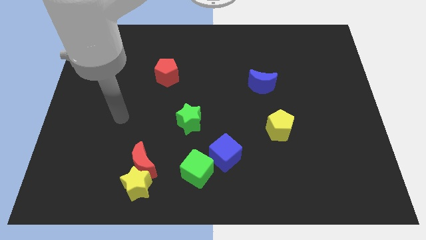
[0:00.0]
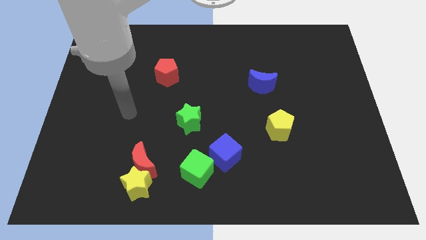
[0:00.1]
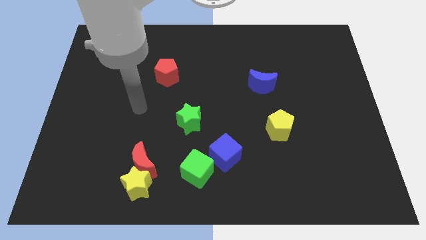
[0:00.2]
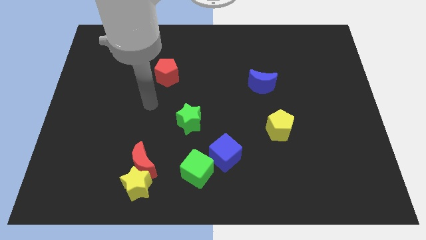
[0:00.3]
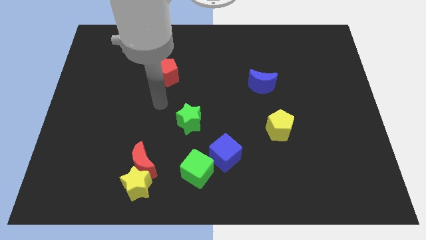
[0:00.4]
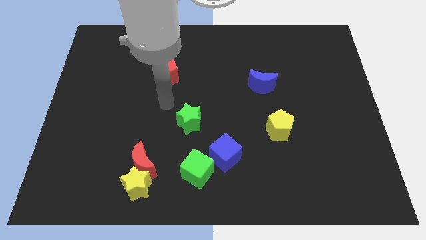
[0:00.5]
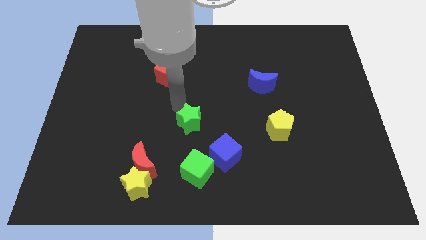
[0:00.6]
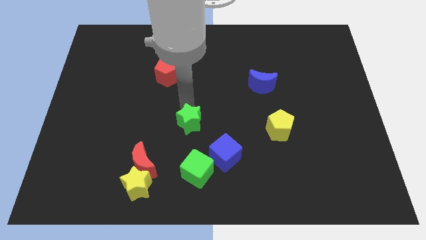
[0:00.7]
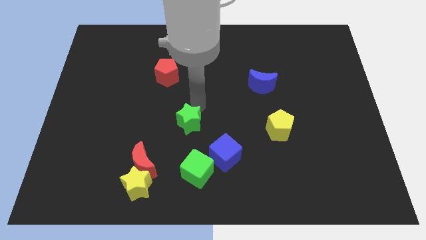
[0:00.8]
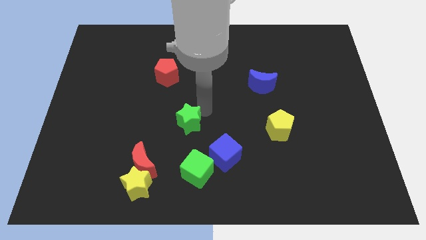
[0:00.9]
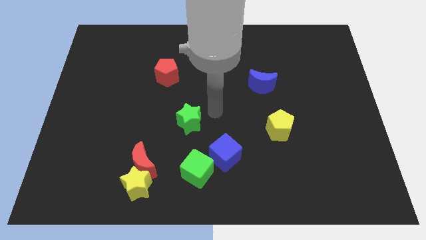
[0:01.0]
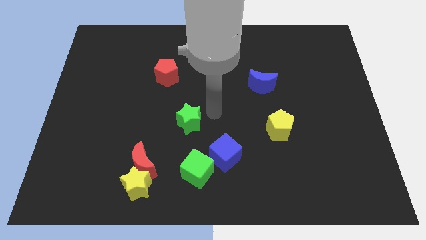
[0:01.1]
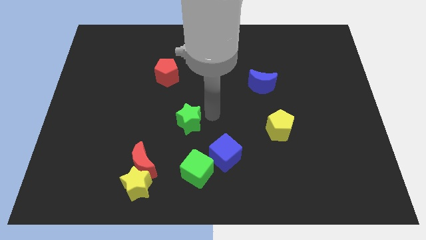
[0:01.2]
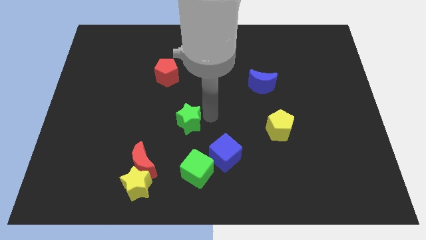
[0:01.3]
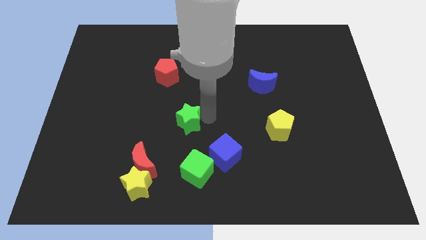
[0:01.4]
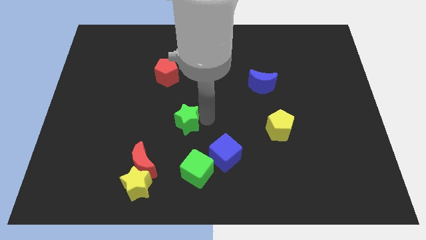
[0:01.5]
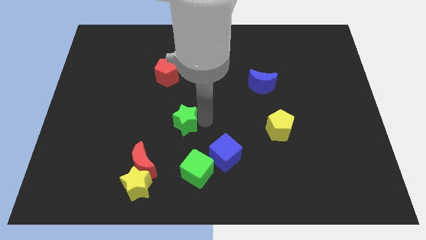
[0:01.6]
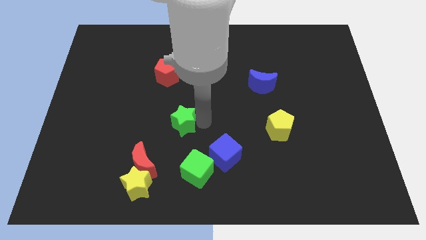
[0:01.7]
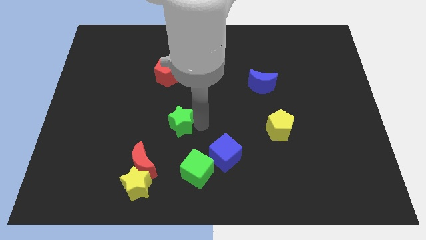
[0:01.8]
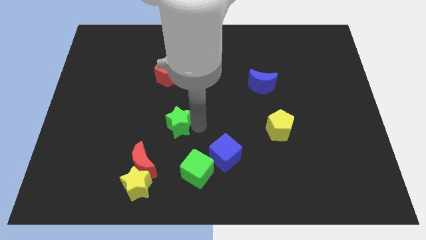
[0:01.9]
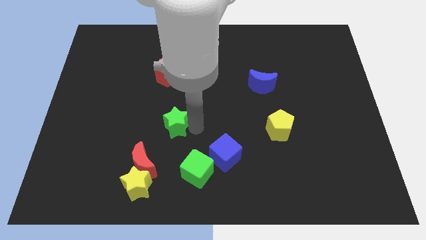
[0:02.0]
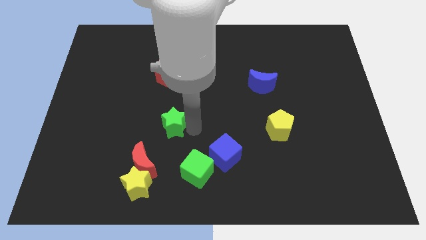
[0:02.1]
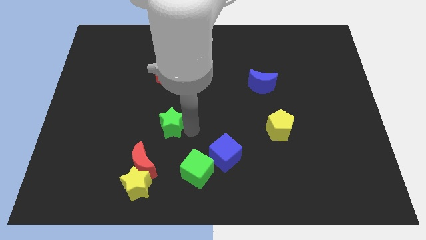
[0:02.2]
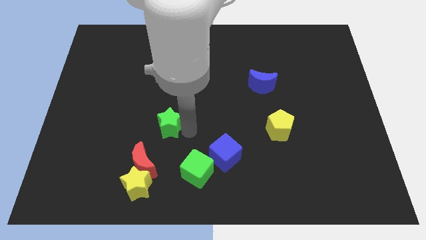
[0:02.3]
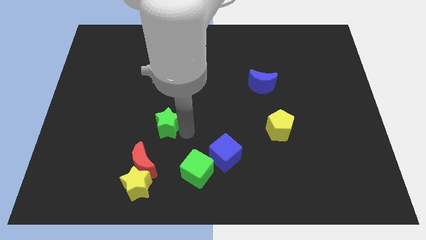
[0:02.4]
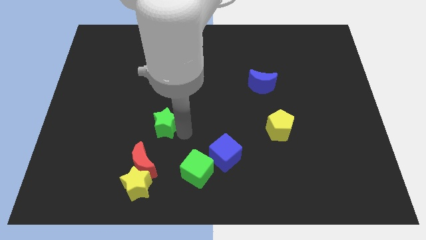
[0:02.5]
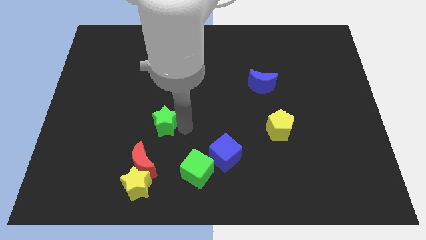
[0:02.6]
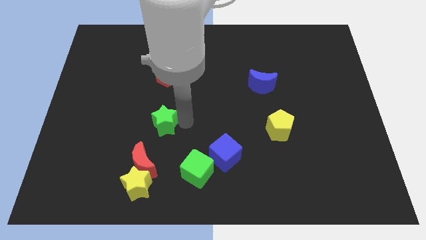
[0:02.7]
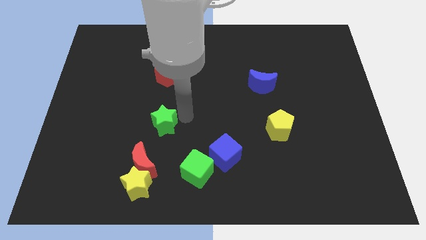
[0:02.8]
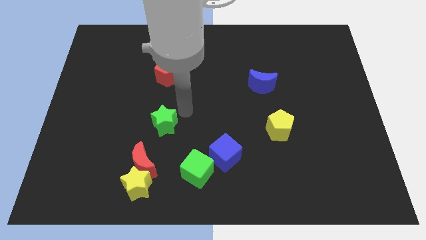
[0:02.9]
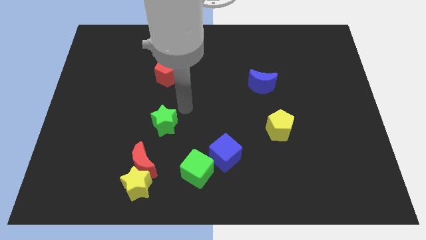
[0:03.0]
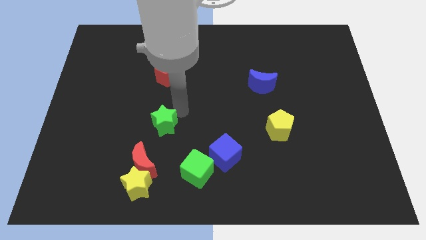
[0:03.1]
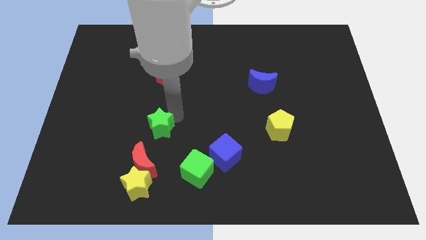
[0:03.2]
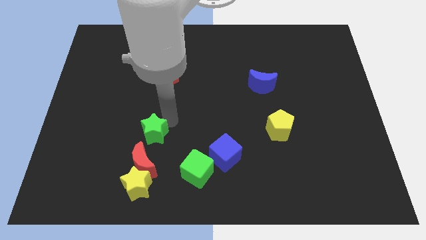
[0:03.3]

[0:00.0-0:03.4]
slightly push the green star diagonally downwards and to the left

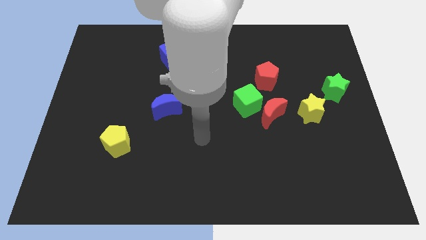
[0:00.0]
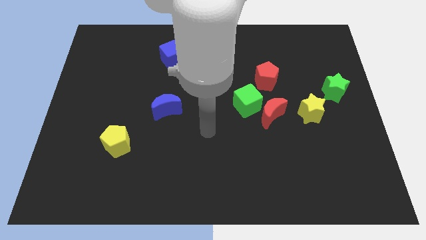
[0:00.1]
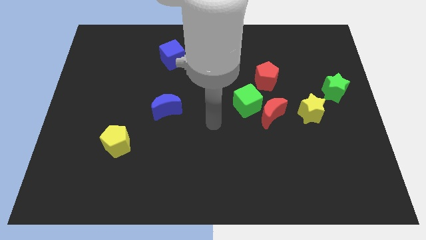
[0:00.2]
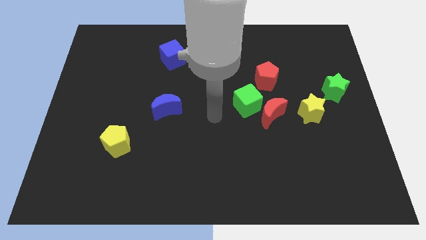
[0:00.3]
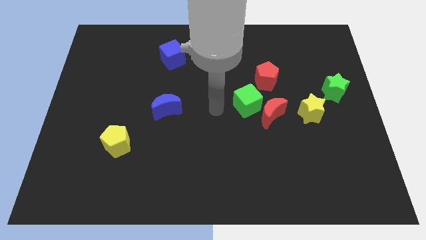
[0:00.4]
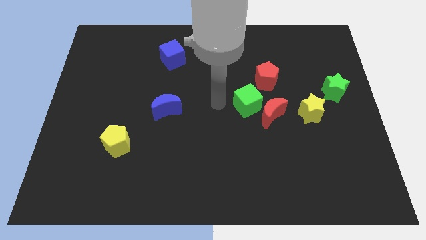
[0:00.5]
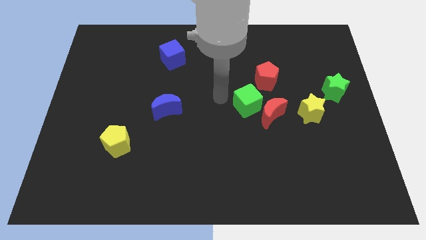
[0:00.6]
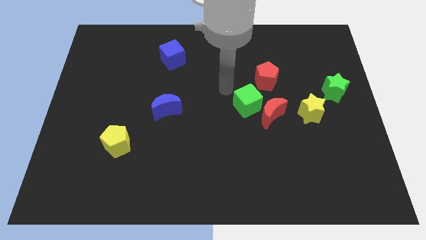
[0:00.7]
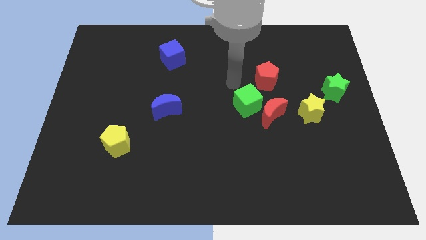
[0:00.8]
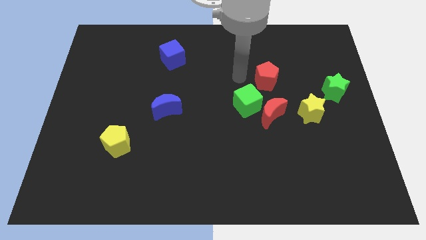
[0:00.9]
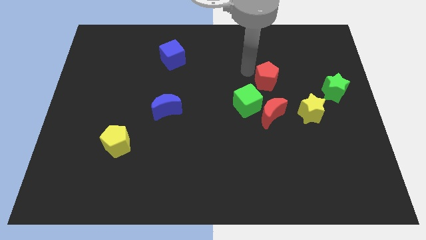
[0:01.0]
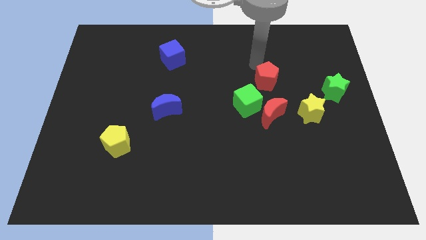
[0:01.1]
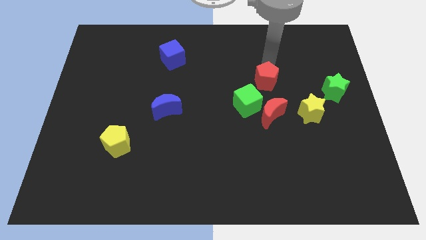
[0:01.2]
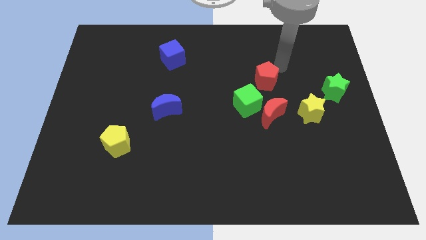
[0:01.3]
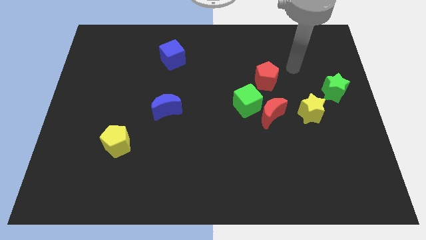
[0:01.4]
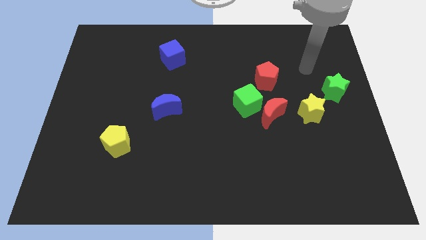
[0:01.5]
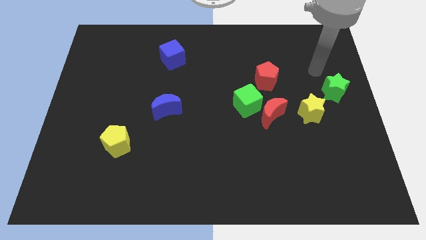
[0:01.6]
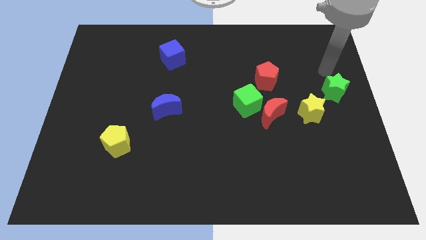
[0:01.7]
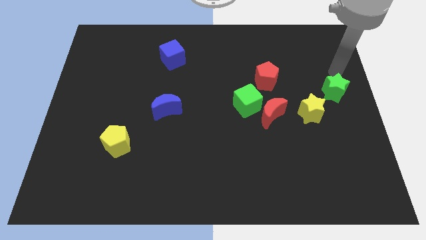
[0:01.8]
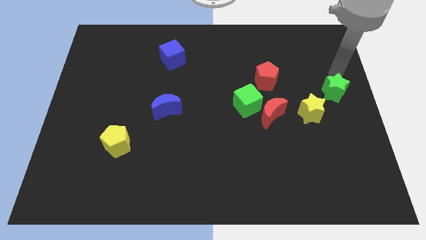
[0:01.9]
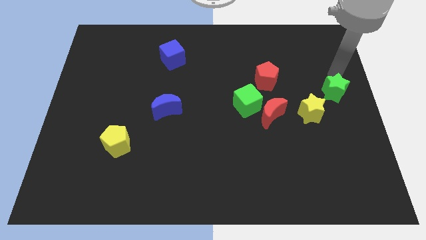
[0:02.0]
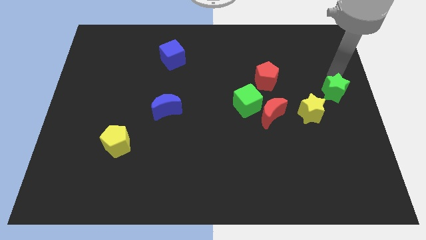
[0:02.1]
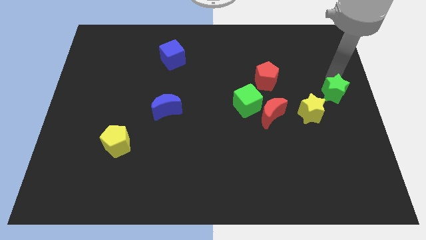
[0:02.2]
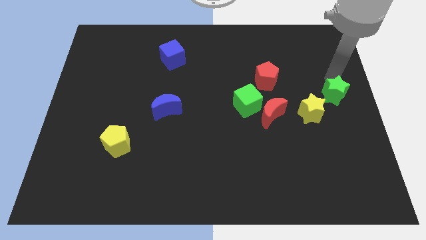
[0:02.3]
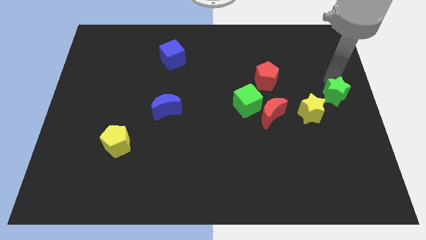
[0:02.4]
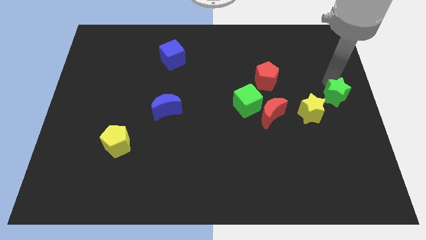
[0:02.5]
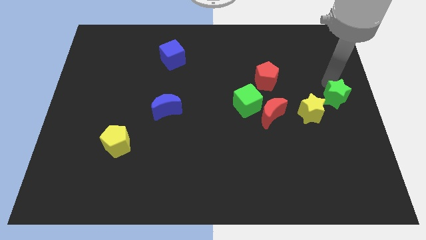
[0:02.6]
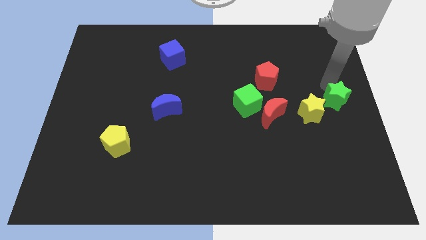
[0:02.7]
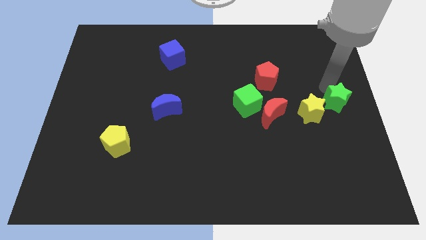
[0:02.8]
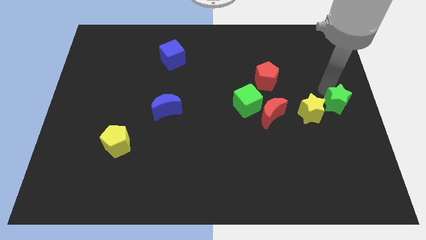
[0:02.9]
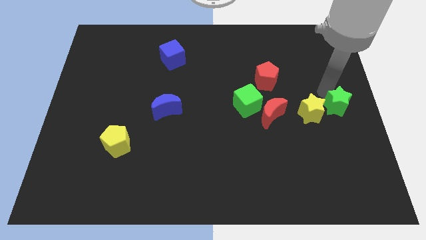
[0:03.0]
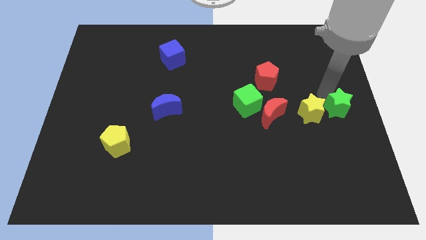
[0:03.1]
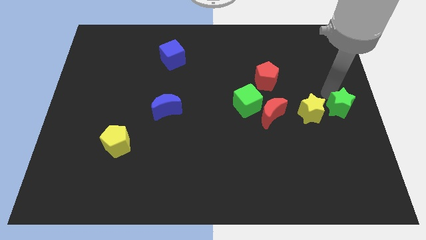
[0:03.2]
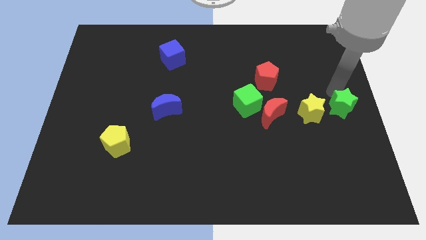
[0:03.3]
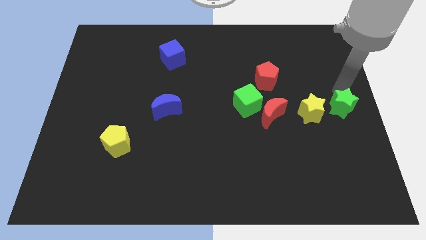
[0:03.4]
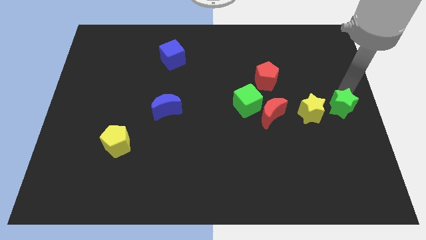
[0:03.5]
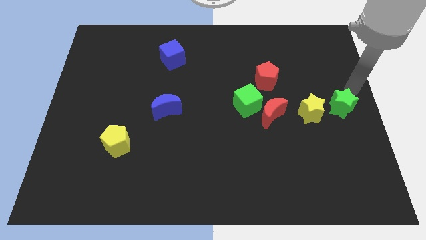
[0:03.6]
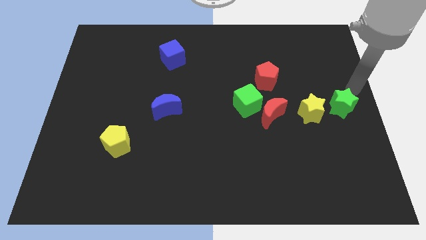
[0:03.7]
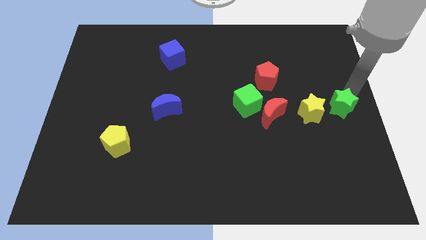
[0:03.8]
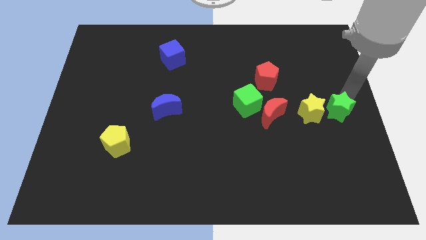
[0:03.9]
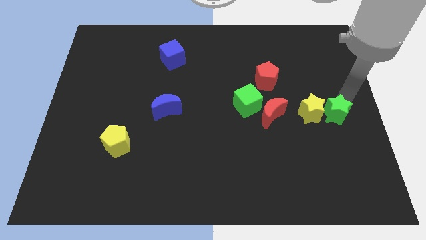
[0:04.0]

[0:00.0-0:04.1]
move the green star a little down

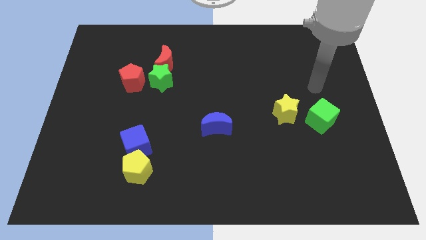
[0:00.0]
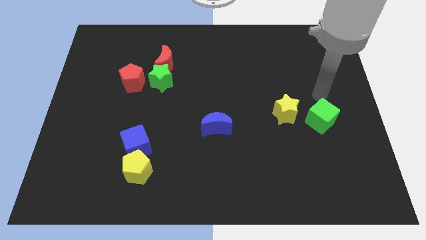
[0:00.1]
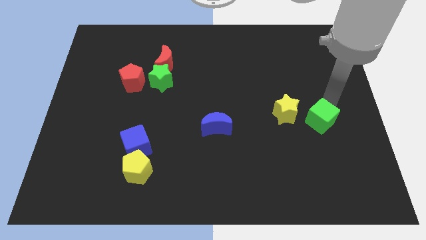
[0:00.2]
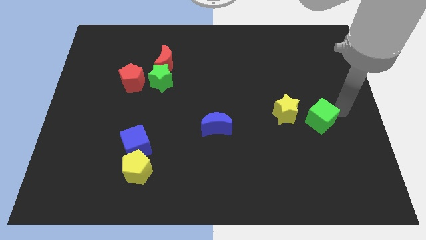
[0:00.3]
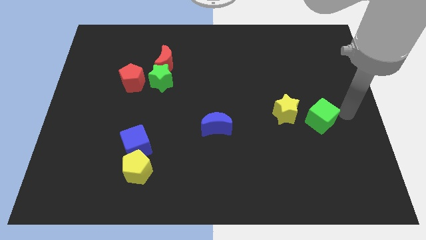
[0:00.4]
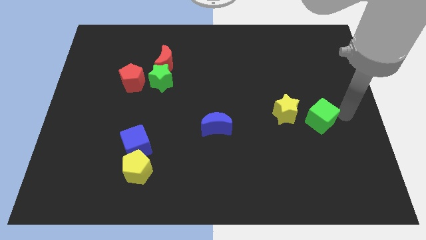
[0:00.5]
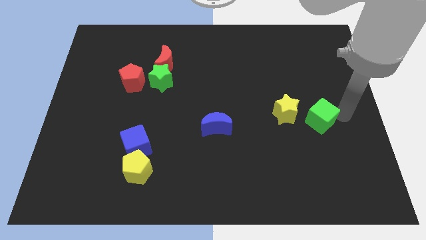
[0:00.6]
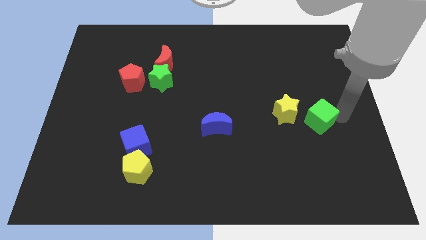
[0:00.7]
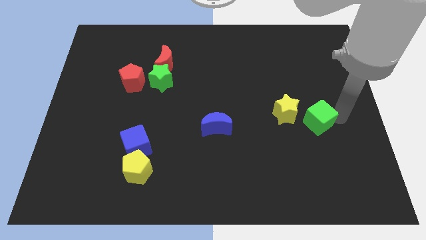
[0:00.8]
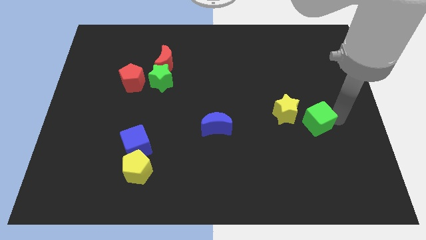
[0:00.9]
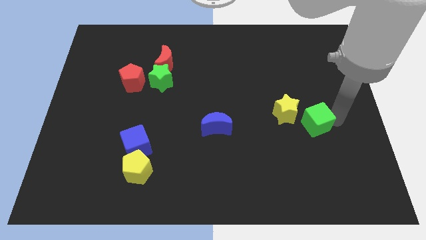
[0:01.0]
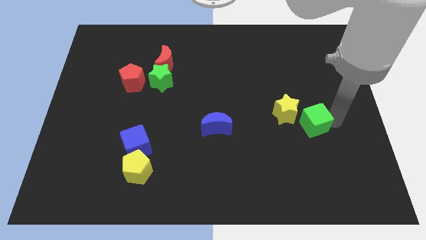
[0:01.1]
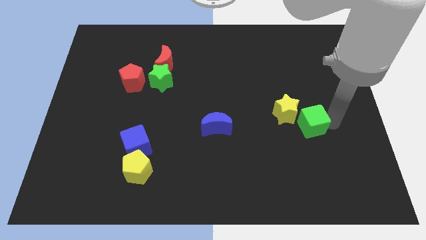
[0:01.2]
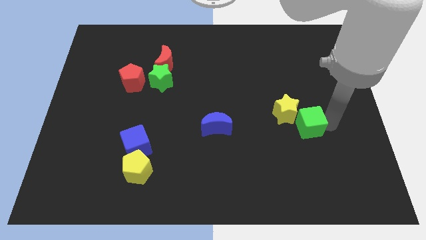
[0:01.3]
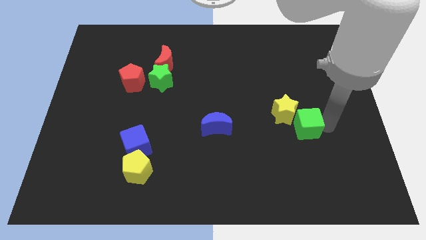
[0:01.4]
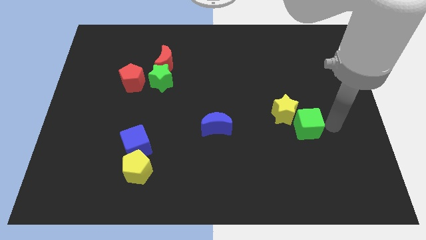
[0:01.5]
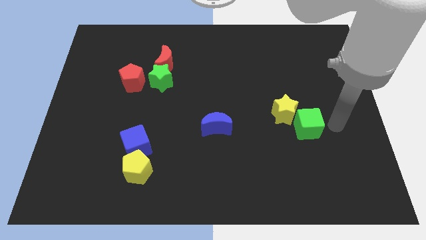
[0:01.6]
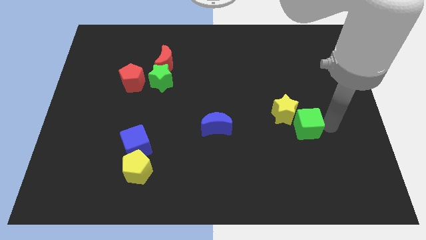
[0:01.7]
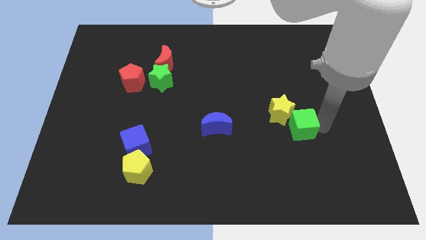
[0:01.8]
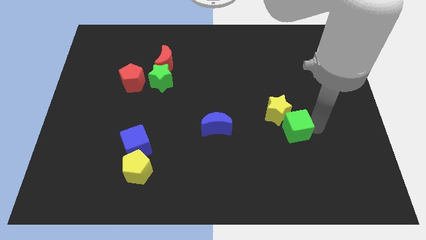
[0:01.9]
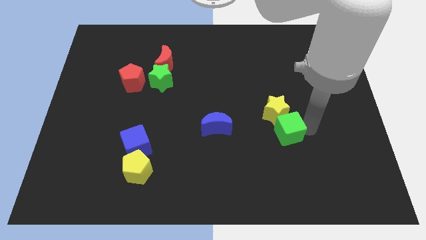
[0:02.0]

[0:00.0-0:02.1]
move the green cube to the left slightly
